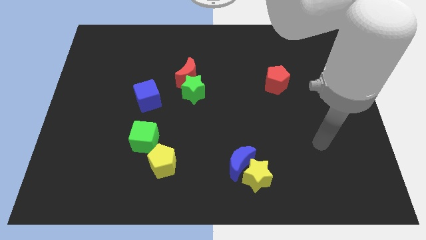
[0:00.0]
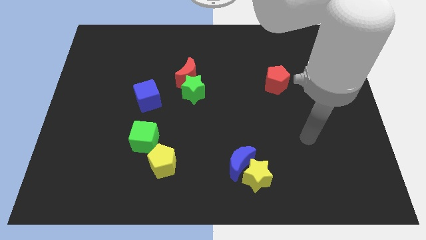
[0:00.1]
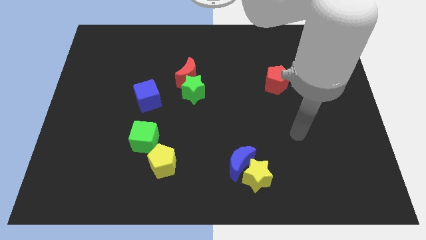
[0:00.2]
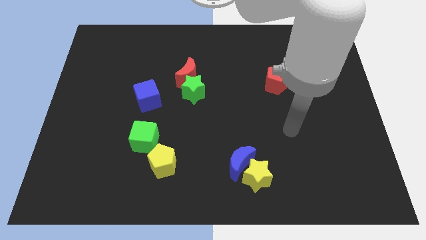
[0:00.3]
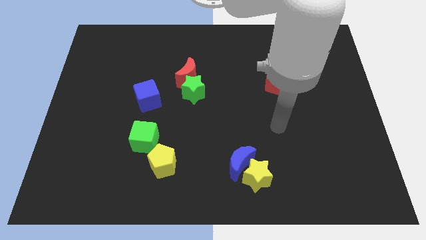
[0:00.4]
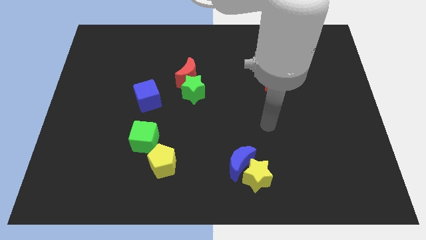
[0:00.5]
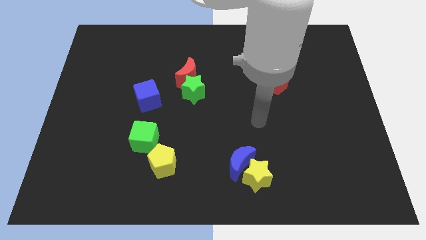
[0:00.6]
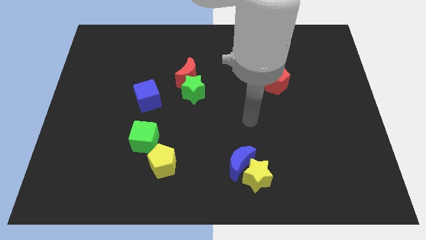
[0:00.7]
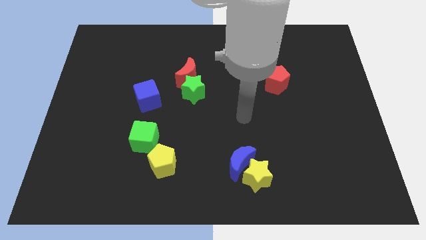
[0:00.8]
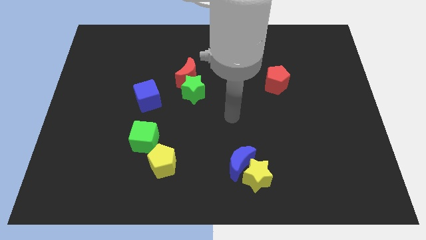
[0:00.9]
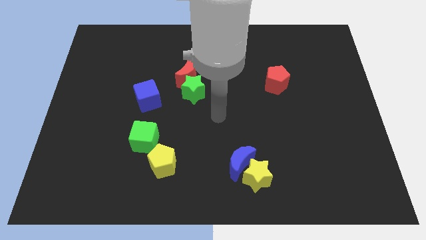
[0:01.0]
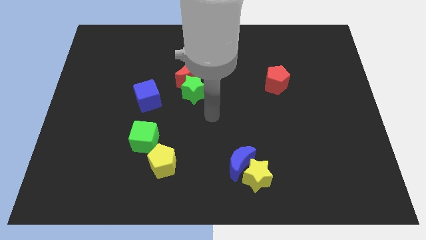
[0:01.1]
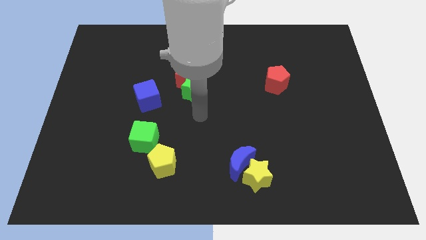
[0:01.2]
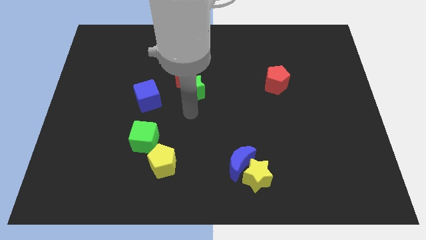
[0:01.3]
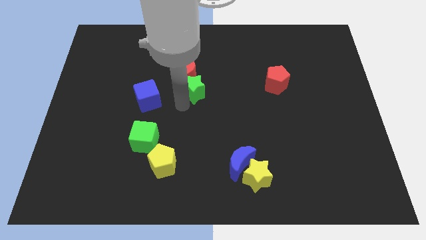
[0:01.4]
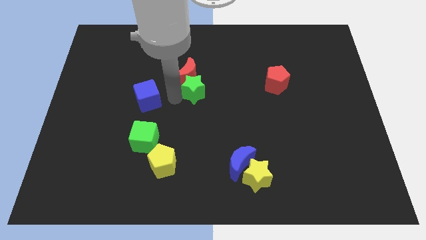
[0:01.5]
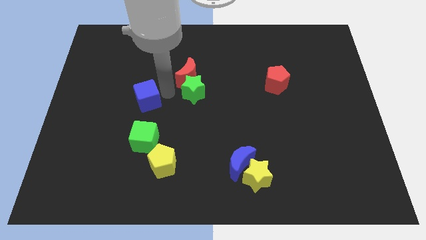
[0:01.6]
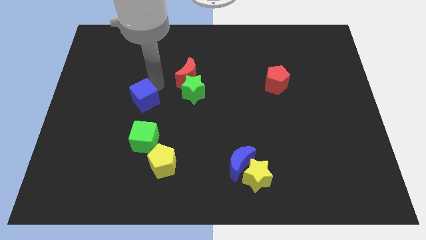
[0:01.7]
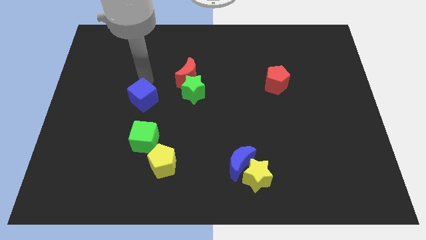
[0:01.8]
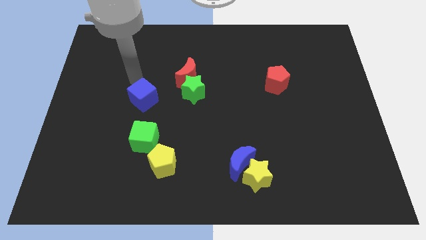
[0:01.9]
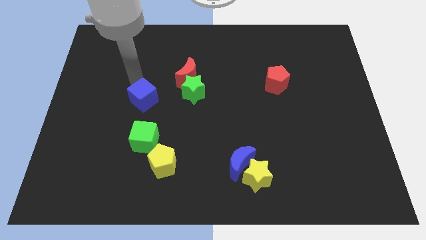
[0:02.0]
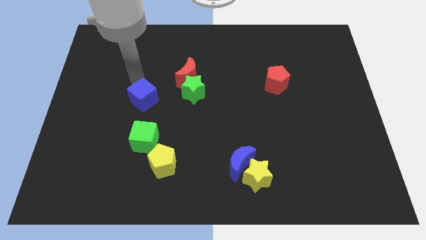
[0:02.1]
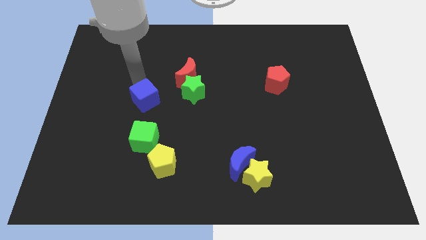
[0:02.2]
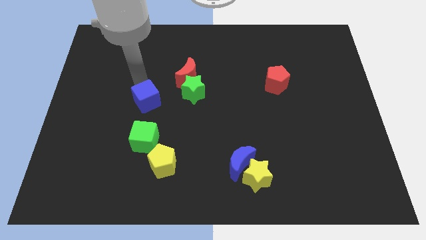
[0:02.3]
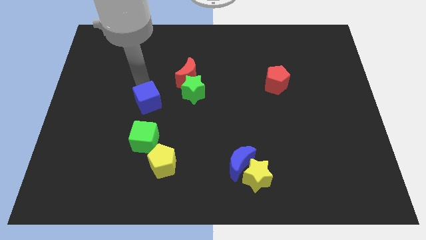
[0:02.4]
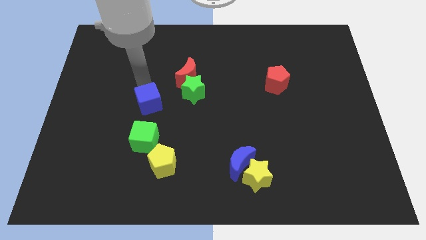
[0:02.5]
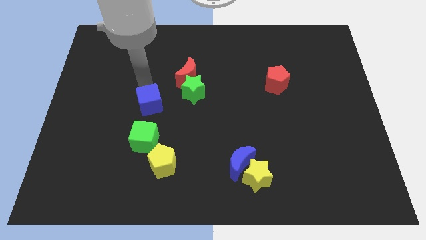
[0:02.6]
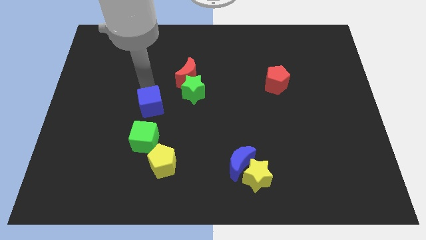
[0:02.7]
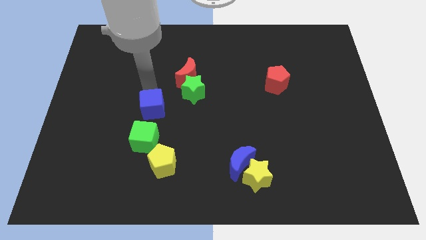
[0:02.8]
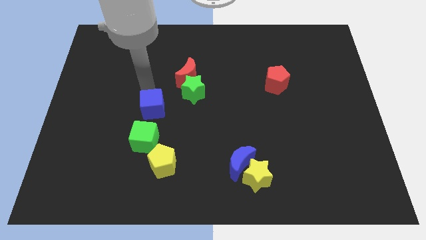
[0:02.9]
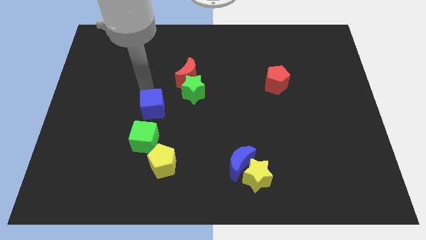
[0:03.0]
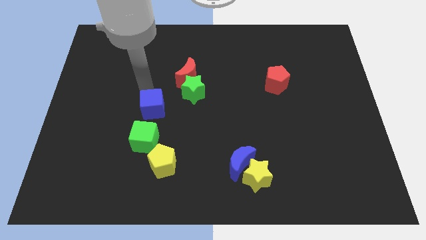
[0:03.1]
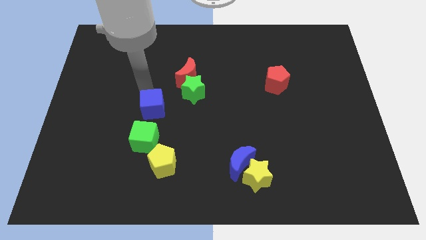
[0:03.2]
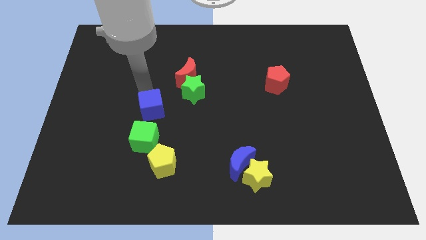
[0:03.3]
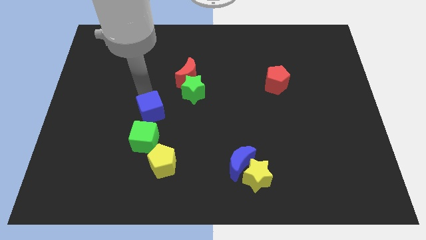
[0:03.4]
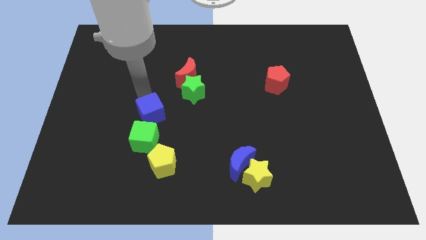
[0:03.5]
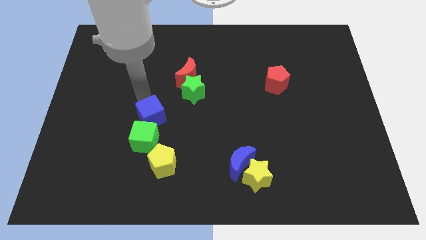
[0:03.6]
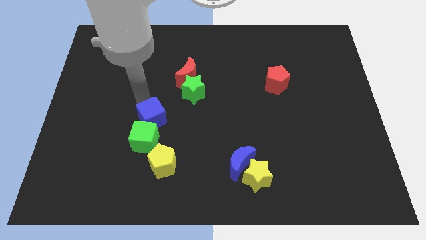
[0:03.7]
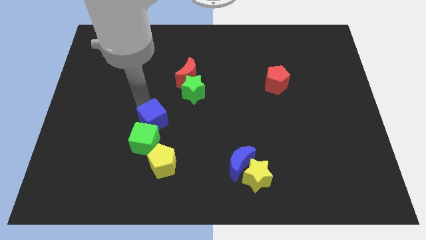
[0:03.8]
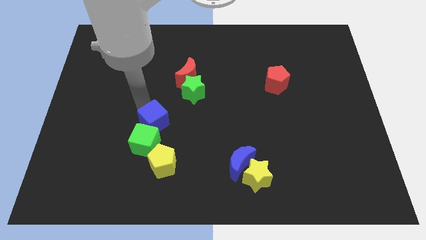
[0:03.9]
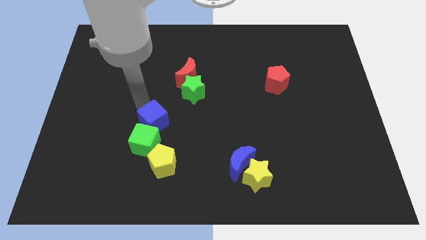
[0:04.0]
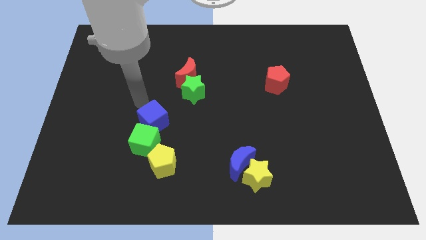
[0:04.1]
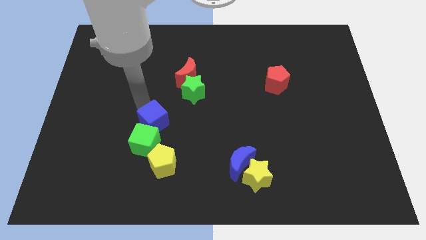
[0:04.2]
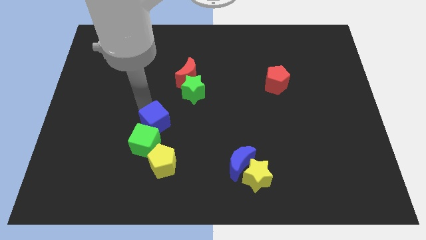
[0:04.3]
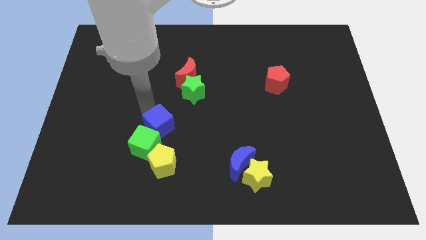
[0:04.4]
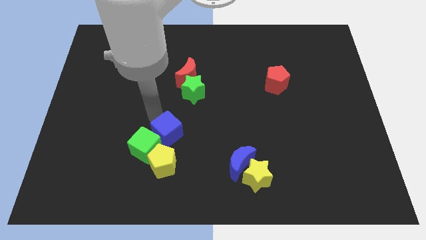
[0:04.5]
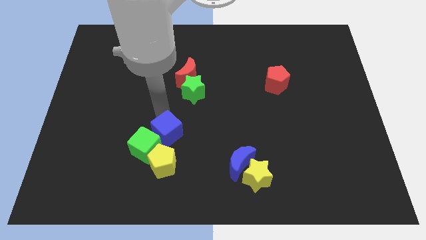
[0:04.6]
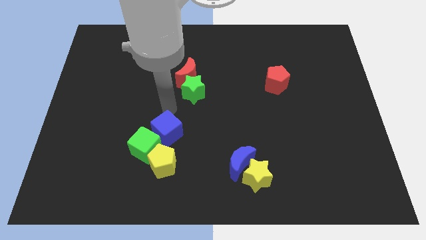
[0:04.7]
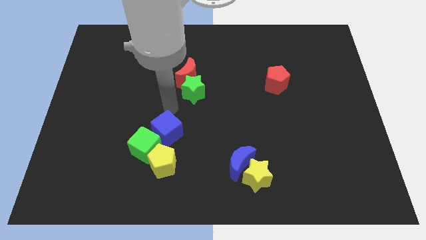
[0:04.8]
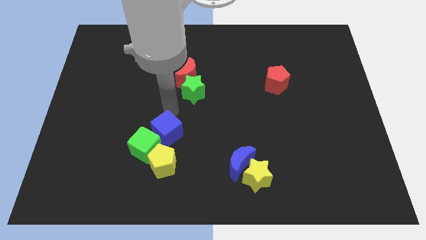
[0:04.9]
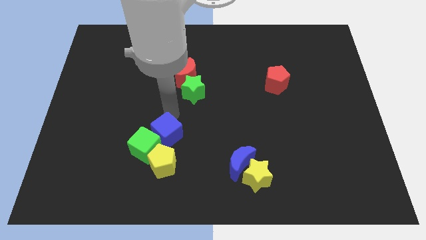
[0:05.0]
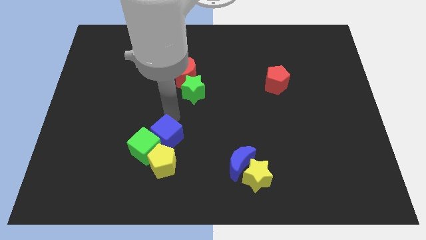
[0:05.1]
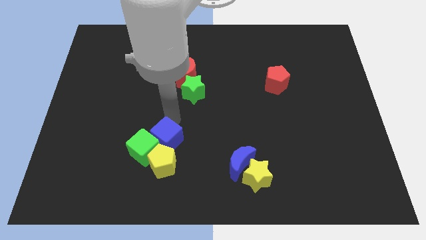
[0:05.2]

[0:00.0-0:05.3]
push the blue cube towards the yellow pentagon

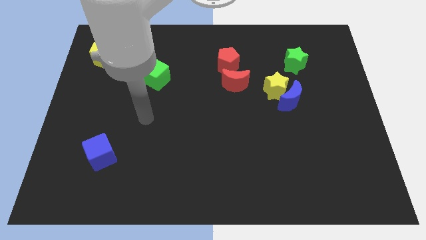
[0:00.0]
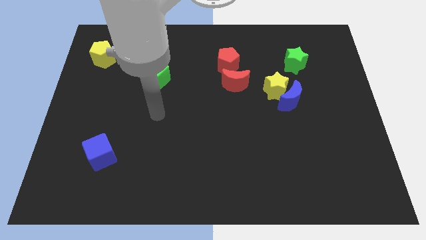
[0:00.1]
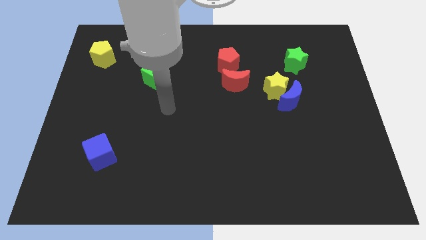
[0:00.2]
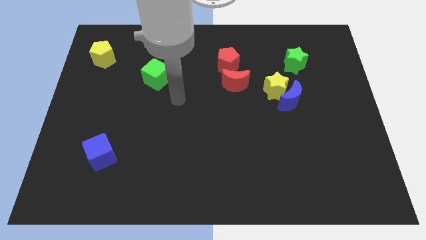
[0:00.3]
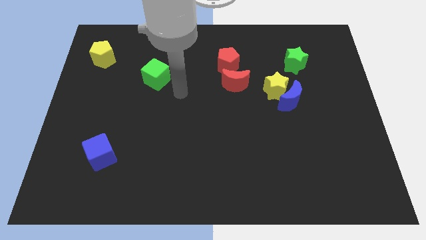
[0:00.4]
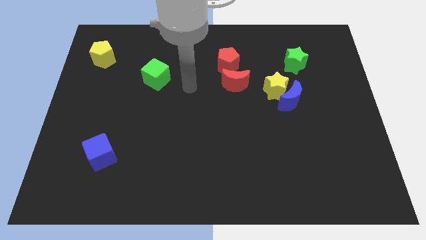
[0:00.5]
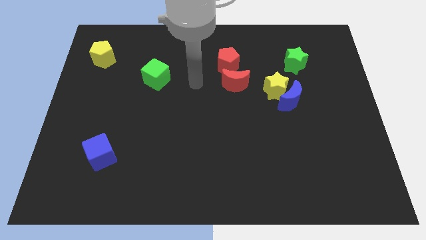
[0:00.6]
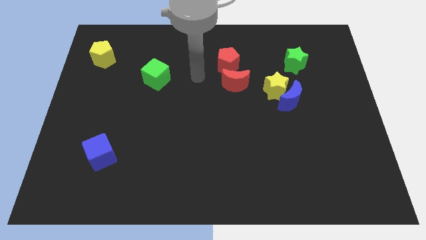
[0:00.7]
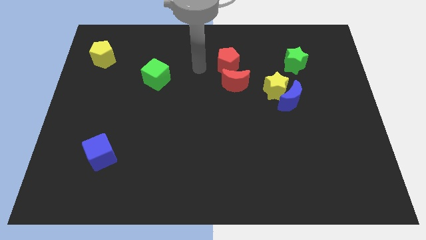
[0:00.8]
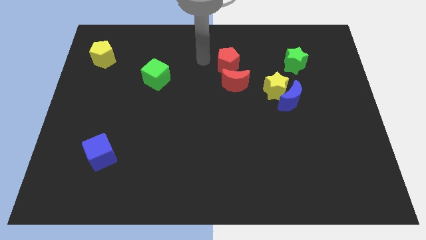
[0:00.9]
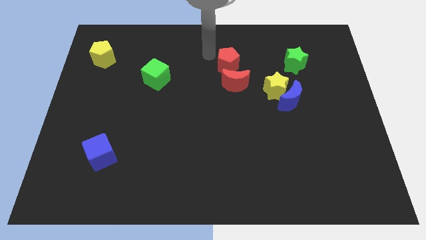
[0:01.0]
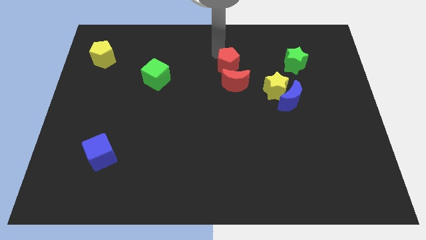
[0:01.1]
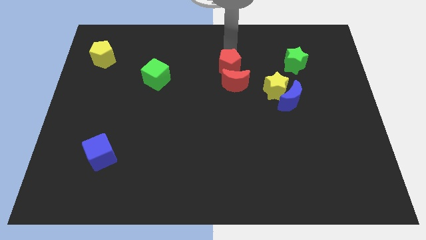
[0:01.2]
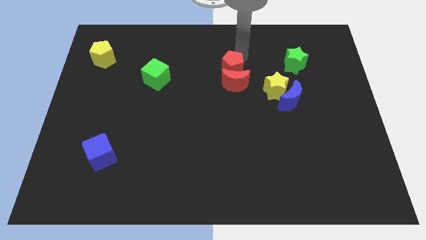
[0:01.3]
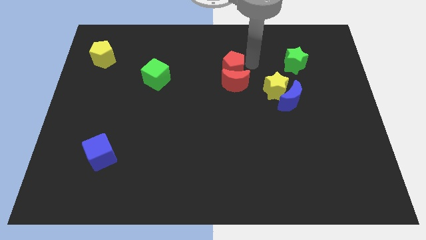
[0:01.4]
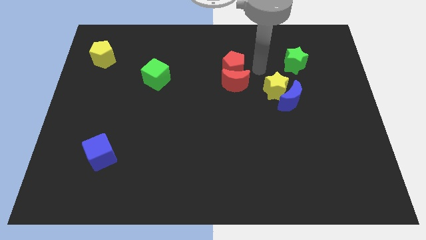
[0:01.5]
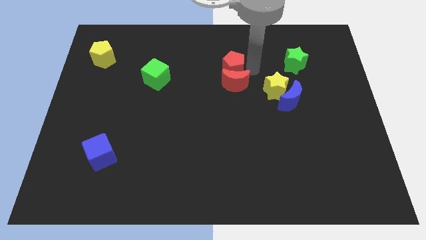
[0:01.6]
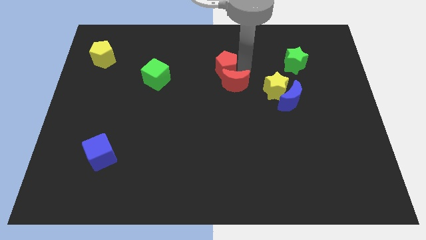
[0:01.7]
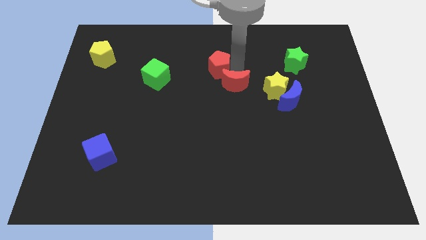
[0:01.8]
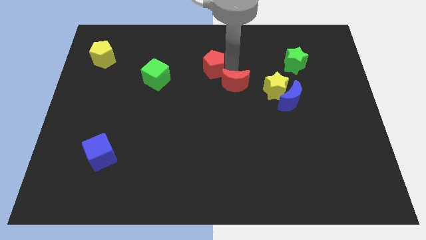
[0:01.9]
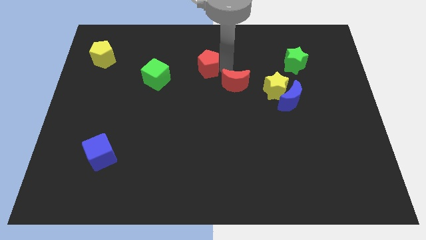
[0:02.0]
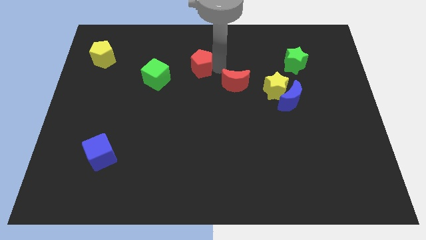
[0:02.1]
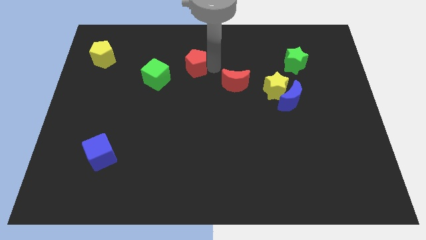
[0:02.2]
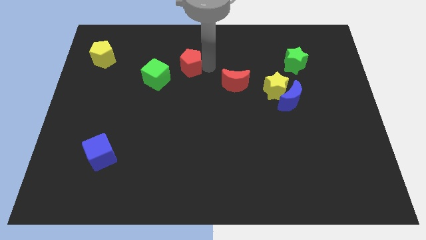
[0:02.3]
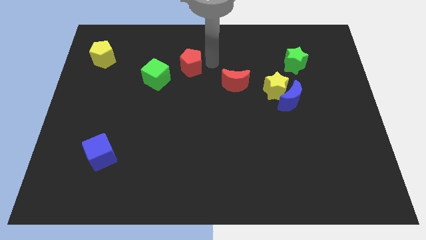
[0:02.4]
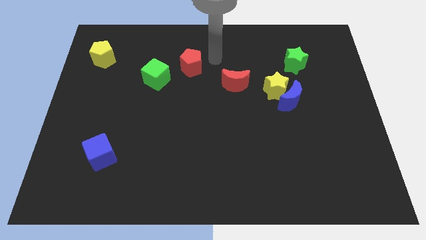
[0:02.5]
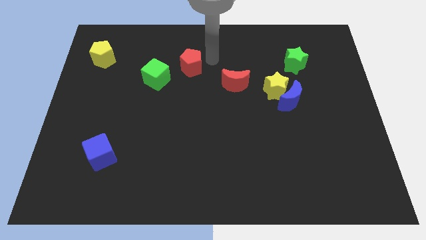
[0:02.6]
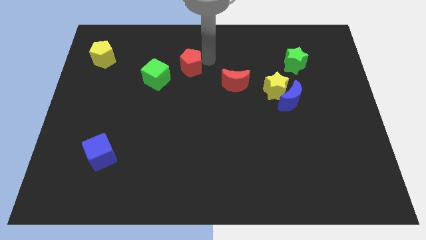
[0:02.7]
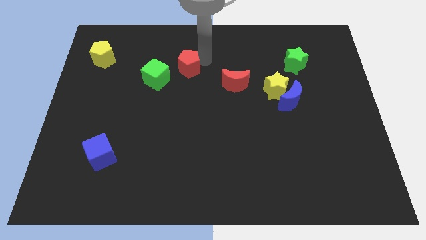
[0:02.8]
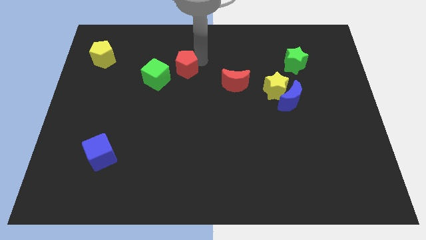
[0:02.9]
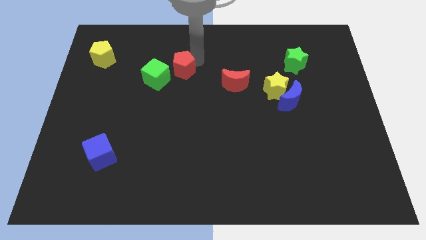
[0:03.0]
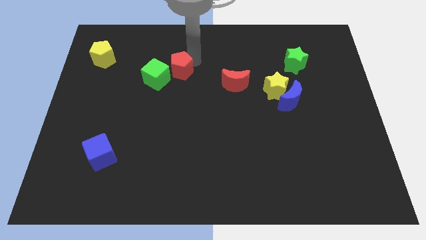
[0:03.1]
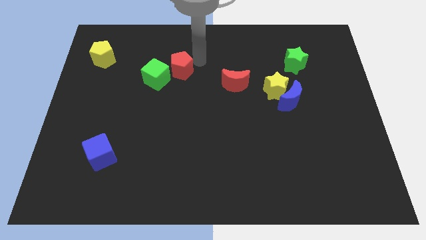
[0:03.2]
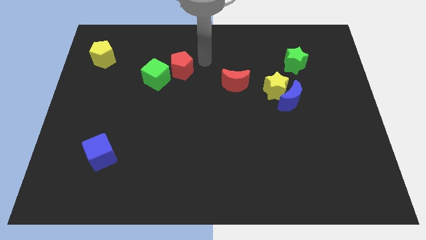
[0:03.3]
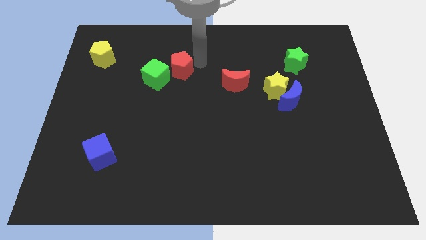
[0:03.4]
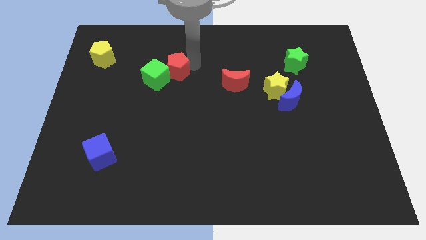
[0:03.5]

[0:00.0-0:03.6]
slide the red pentagon towards the green cube
